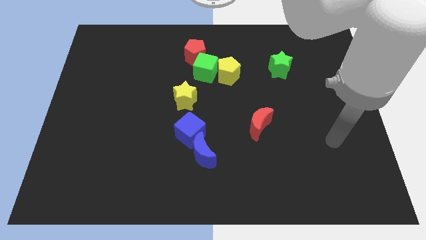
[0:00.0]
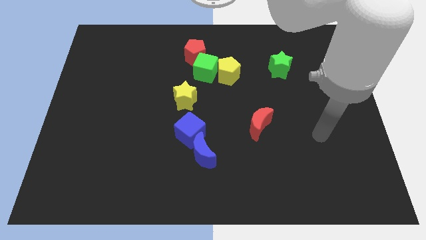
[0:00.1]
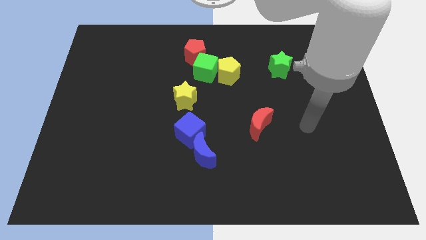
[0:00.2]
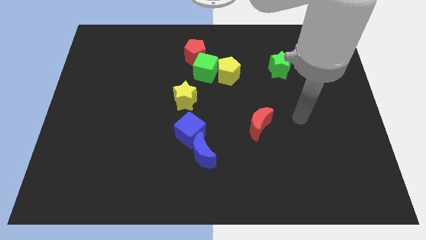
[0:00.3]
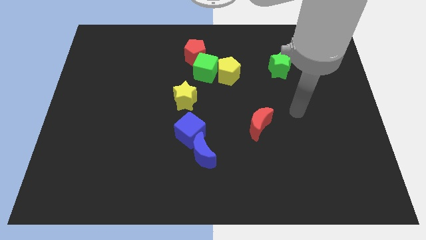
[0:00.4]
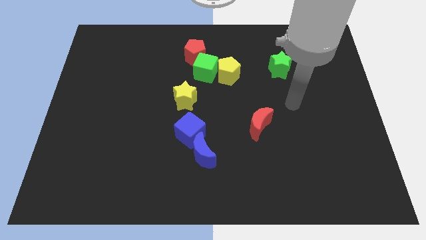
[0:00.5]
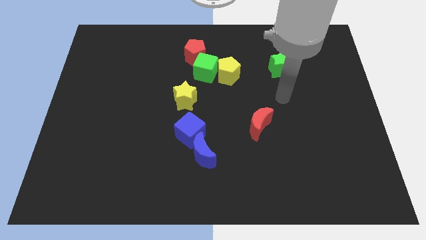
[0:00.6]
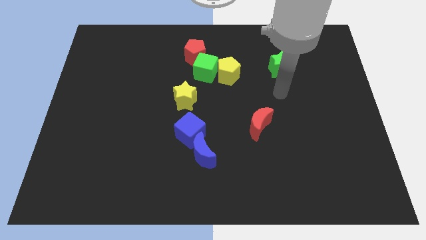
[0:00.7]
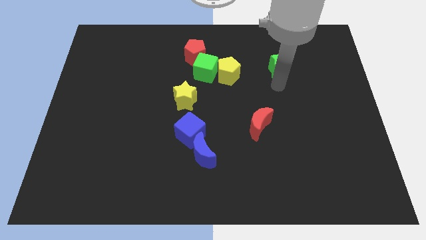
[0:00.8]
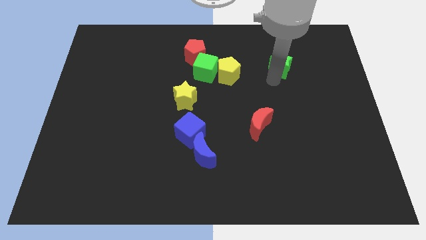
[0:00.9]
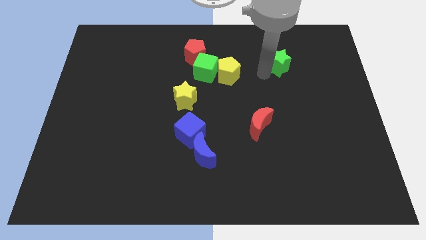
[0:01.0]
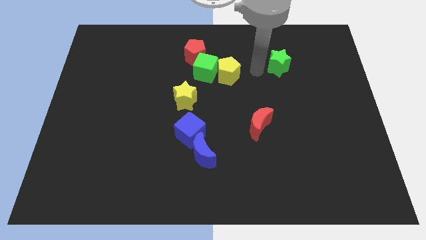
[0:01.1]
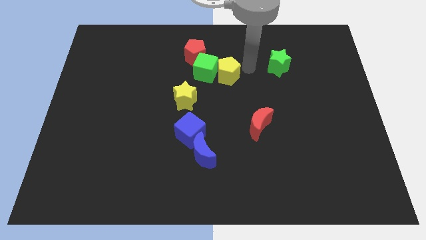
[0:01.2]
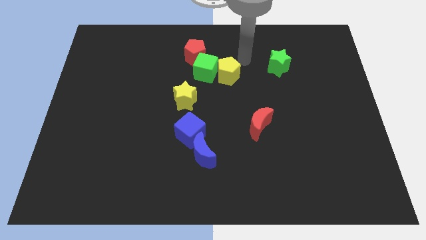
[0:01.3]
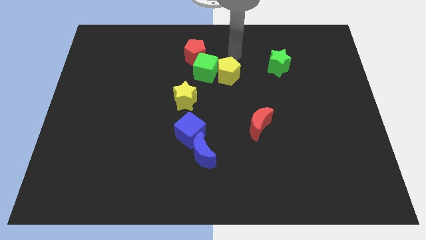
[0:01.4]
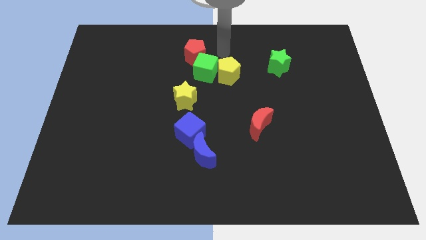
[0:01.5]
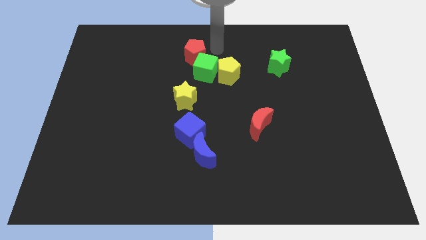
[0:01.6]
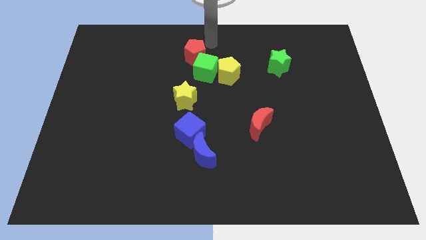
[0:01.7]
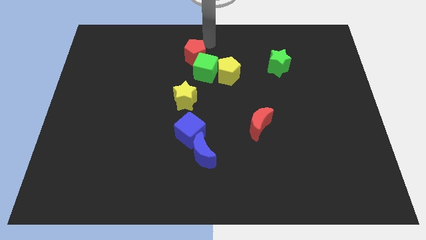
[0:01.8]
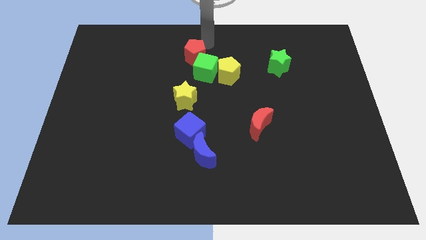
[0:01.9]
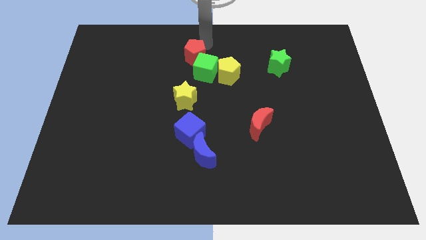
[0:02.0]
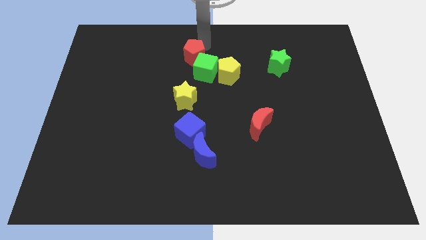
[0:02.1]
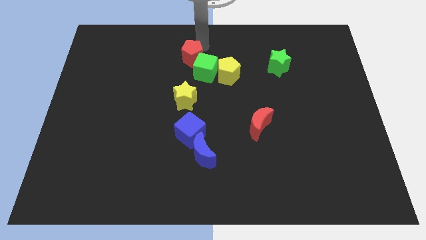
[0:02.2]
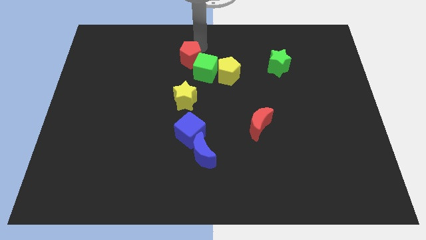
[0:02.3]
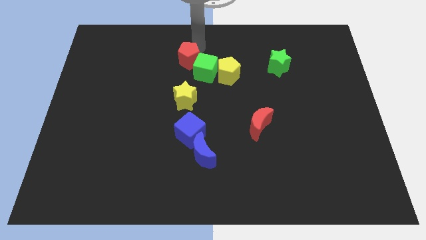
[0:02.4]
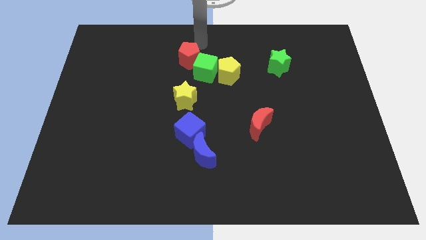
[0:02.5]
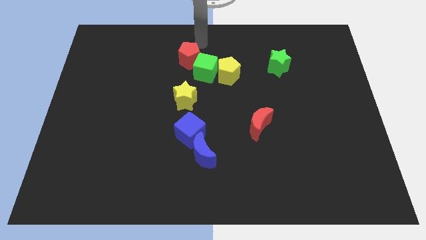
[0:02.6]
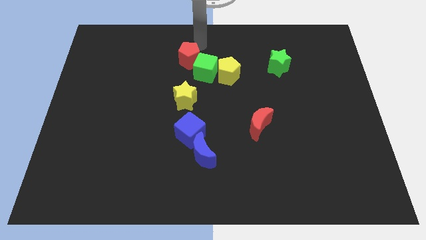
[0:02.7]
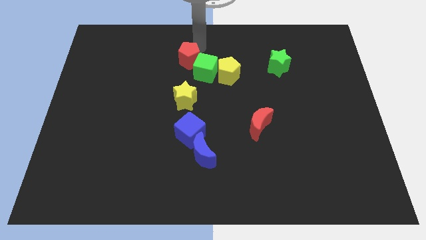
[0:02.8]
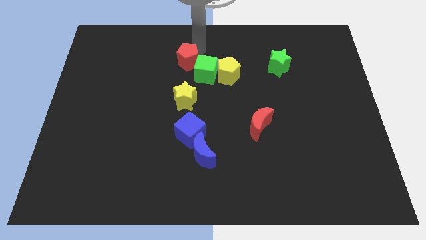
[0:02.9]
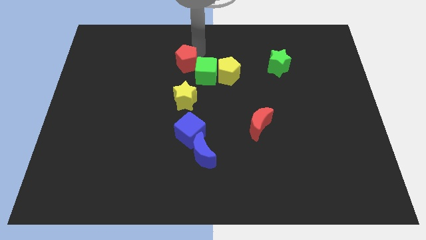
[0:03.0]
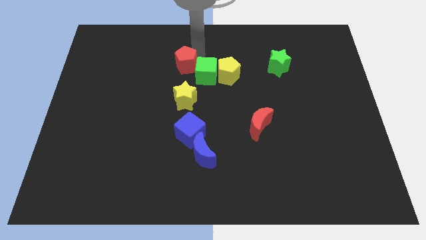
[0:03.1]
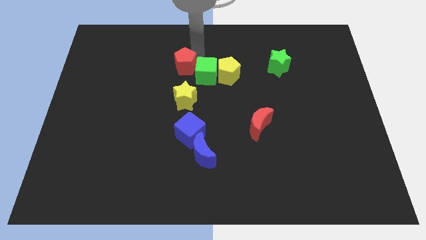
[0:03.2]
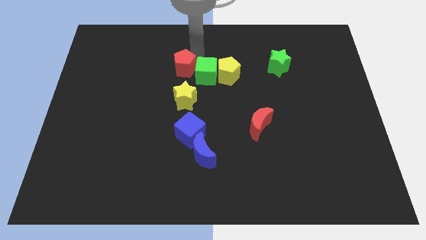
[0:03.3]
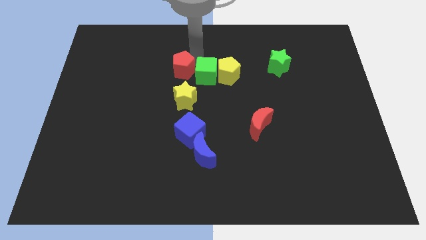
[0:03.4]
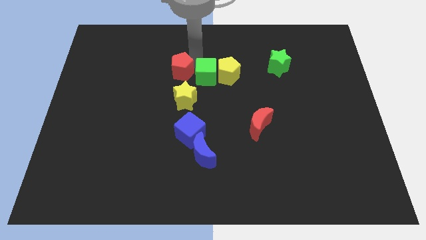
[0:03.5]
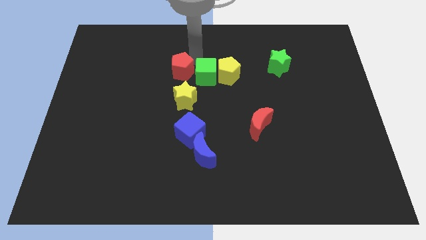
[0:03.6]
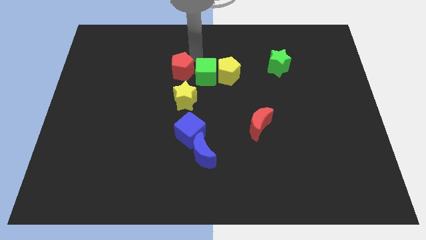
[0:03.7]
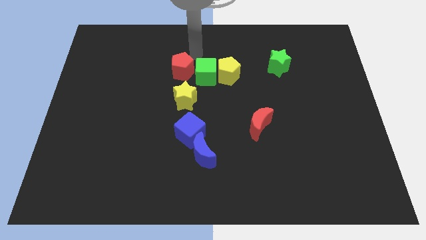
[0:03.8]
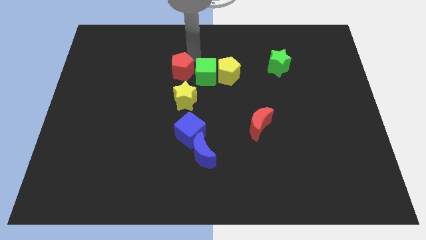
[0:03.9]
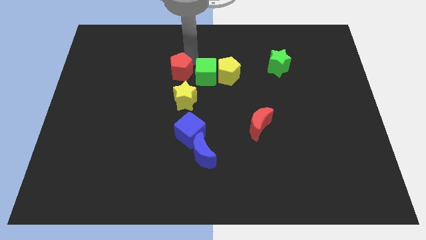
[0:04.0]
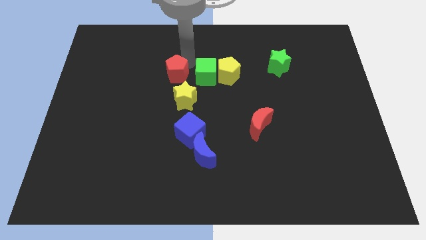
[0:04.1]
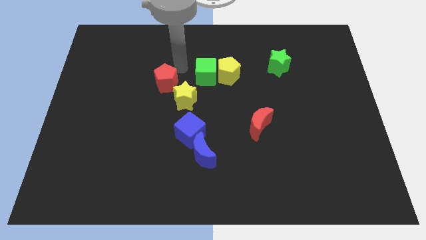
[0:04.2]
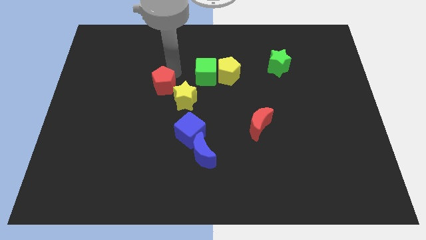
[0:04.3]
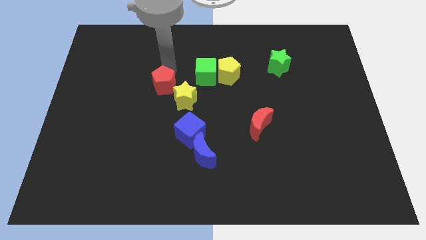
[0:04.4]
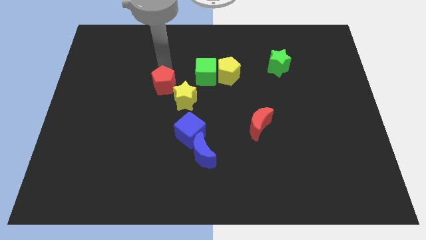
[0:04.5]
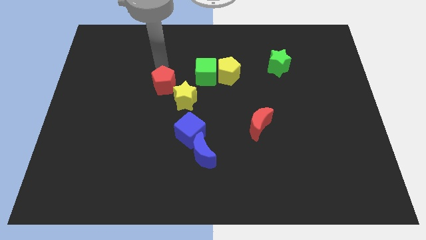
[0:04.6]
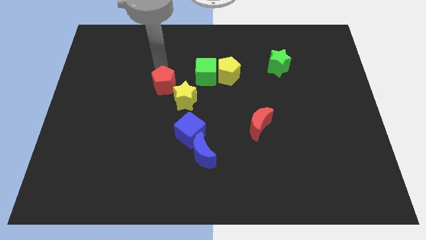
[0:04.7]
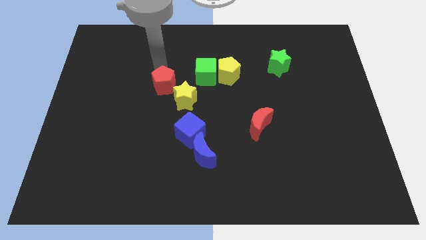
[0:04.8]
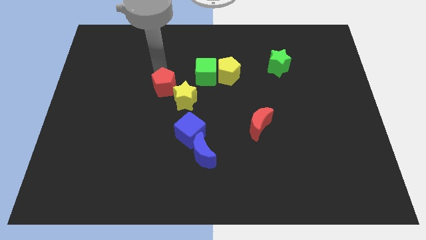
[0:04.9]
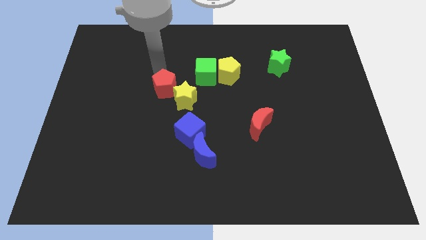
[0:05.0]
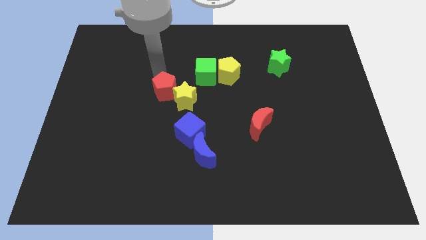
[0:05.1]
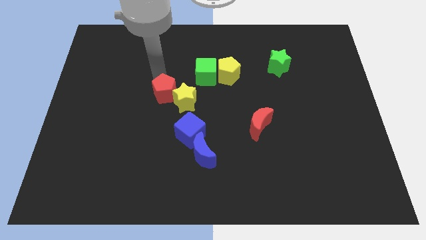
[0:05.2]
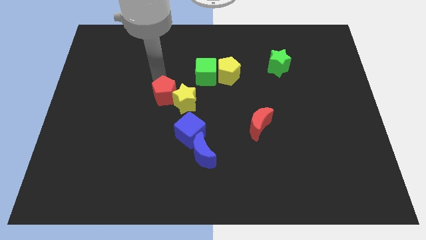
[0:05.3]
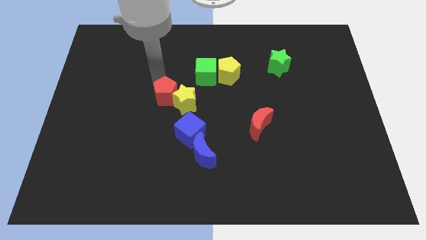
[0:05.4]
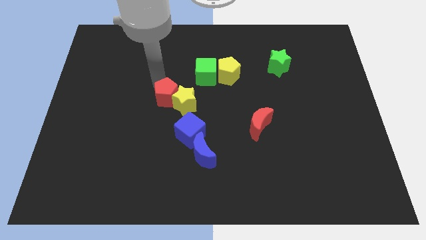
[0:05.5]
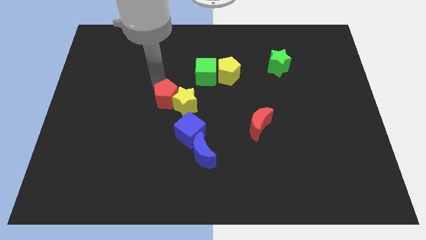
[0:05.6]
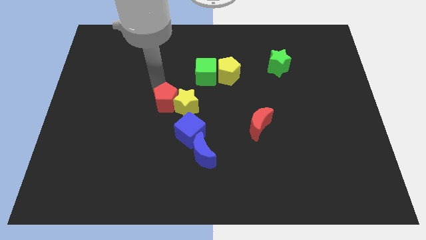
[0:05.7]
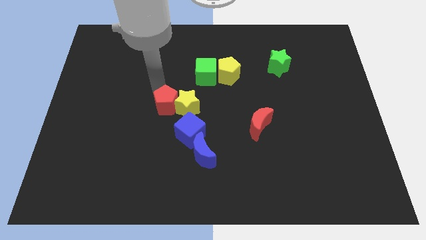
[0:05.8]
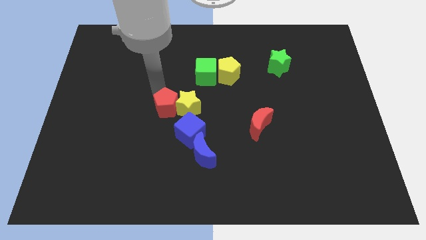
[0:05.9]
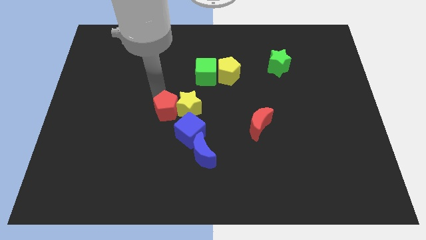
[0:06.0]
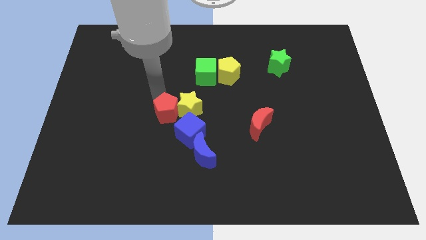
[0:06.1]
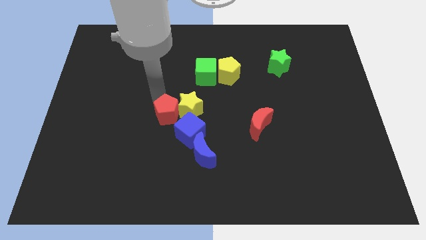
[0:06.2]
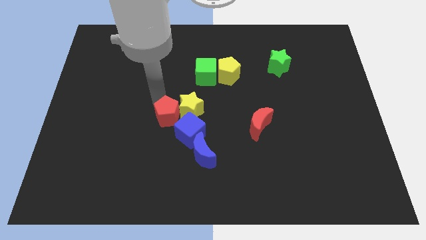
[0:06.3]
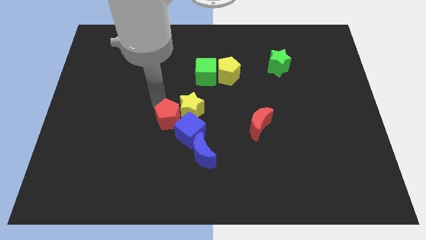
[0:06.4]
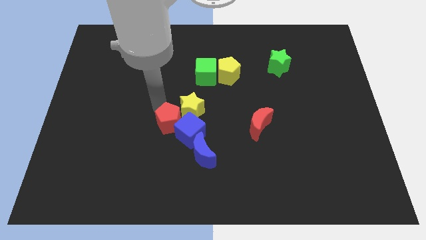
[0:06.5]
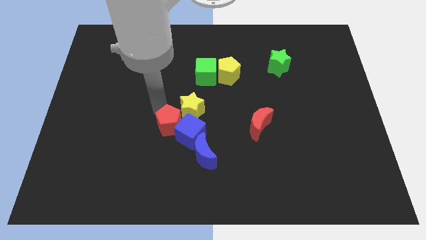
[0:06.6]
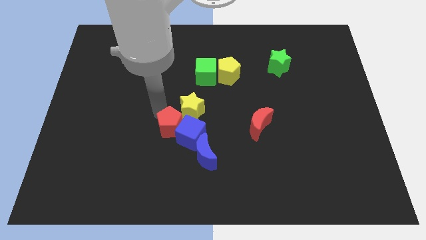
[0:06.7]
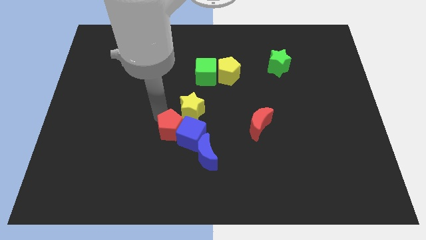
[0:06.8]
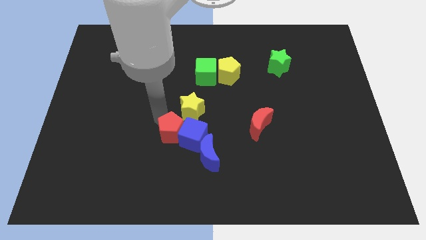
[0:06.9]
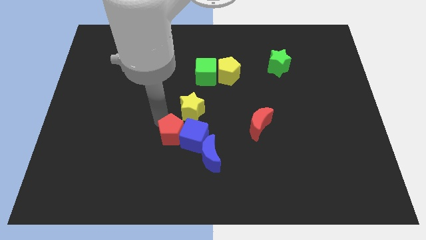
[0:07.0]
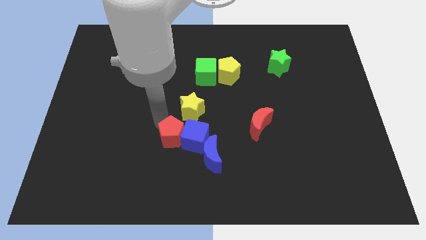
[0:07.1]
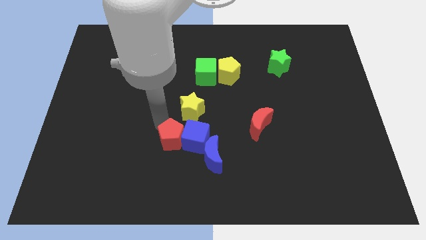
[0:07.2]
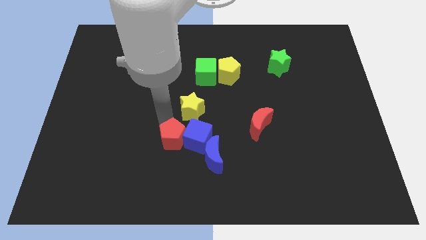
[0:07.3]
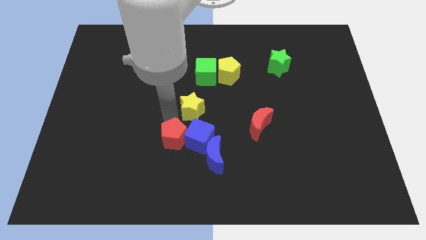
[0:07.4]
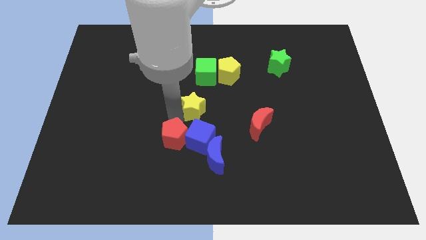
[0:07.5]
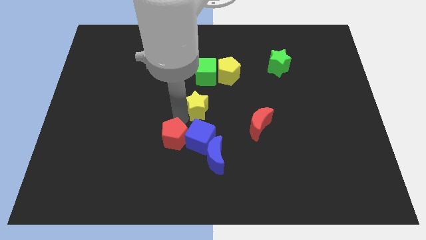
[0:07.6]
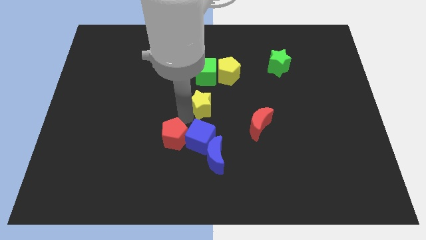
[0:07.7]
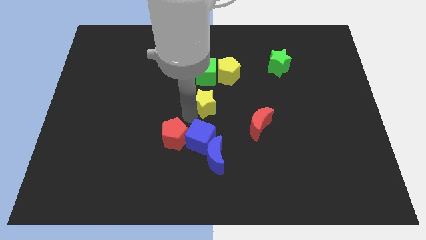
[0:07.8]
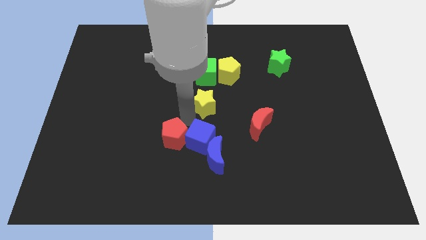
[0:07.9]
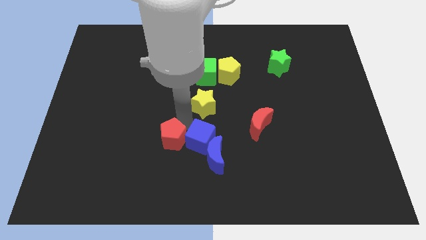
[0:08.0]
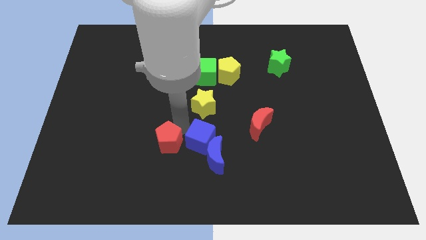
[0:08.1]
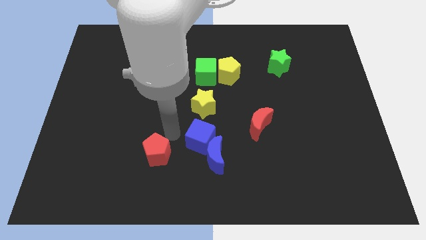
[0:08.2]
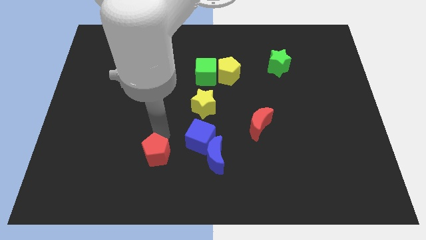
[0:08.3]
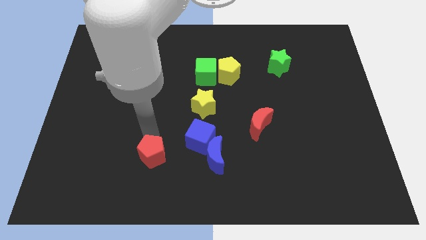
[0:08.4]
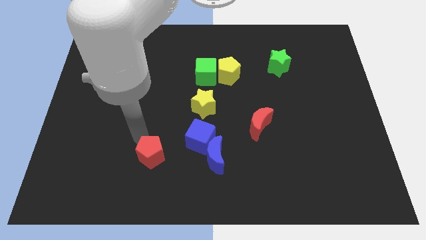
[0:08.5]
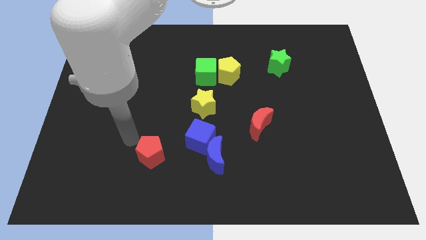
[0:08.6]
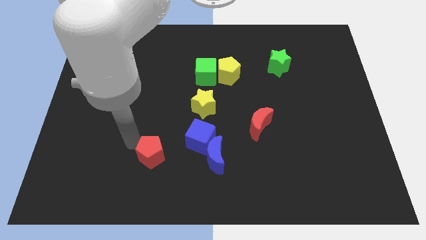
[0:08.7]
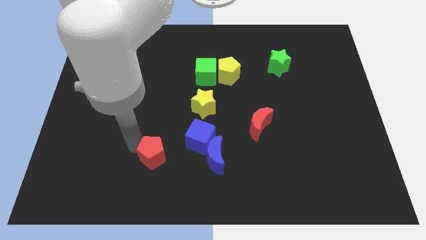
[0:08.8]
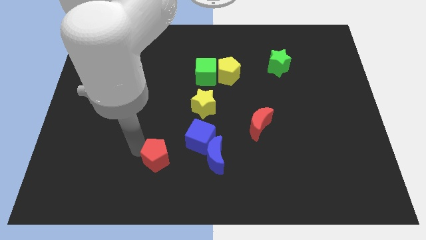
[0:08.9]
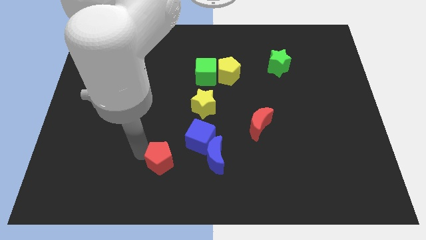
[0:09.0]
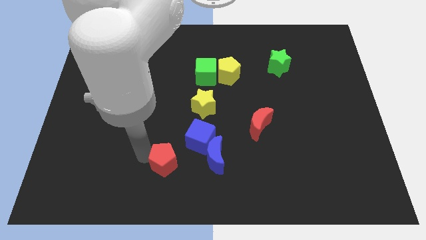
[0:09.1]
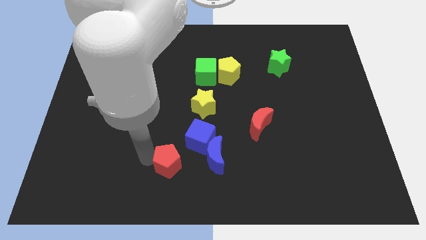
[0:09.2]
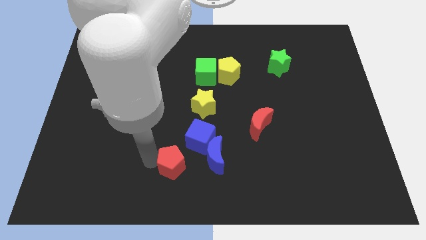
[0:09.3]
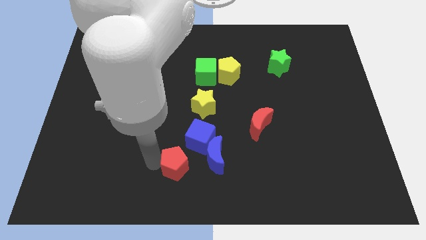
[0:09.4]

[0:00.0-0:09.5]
slide the red pentagon below the blue cube
